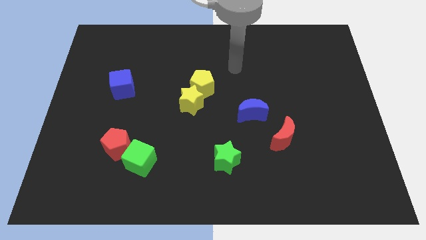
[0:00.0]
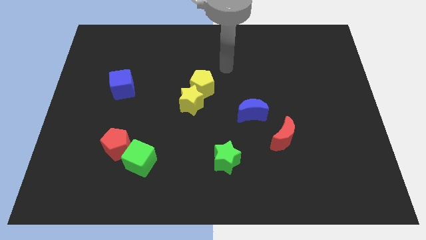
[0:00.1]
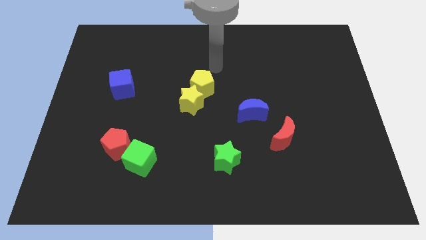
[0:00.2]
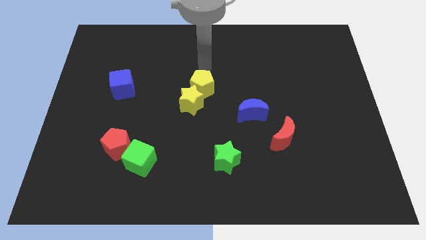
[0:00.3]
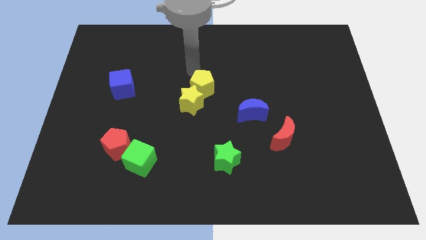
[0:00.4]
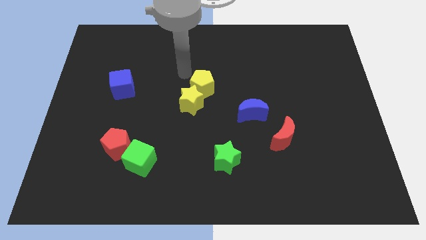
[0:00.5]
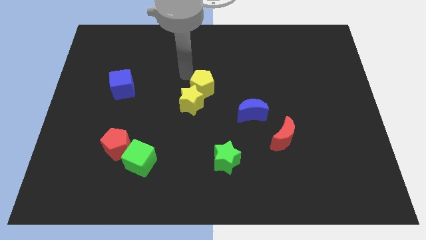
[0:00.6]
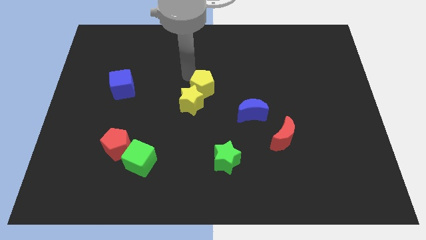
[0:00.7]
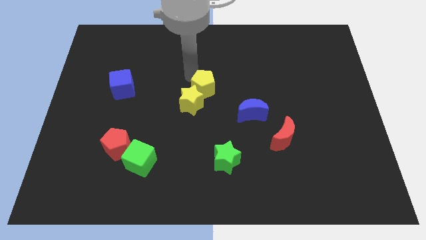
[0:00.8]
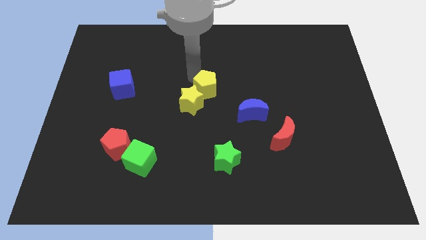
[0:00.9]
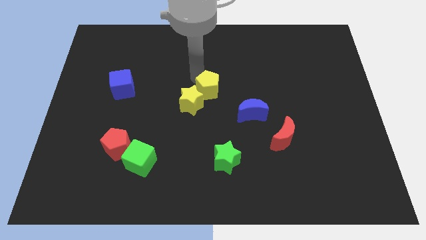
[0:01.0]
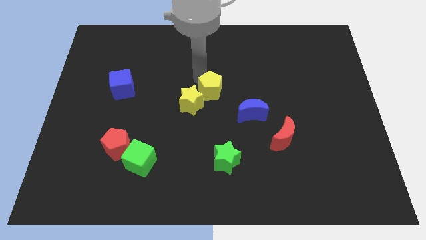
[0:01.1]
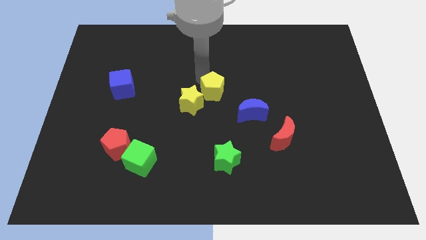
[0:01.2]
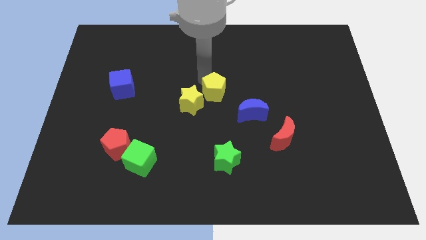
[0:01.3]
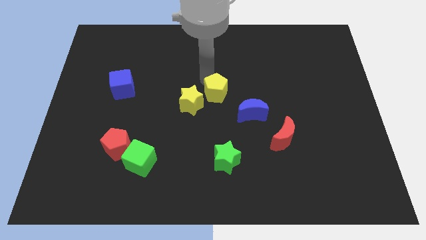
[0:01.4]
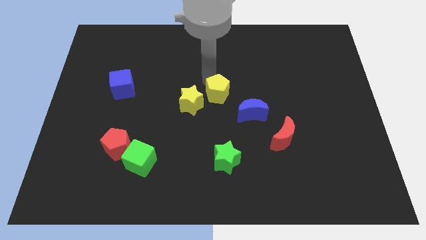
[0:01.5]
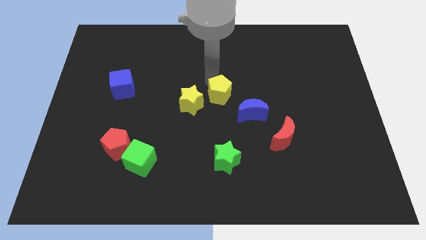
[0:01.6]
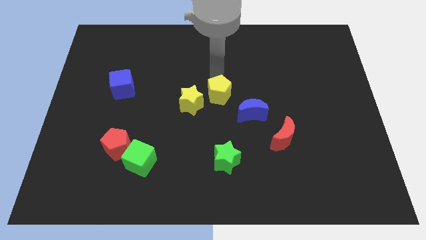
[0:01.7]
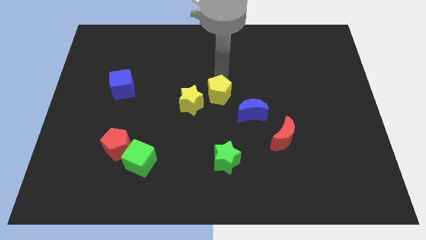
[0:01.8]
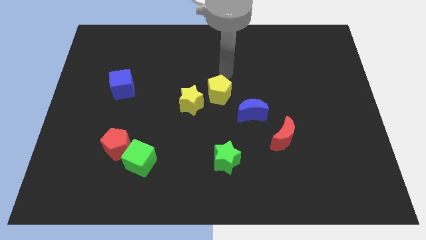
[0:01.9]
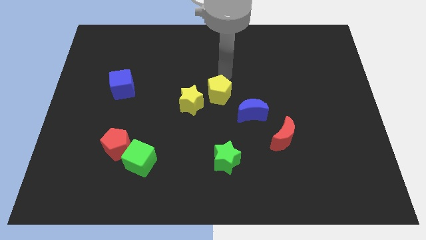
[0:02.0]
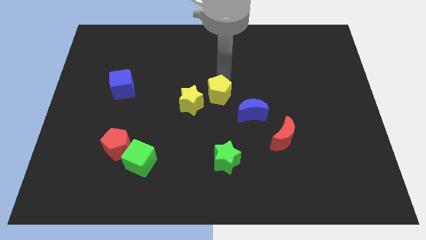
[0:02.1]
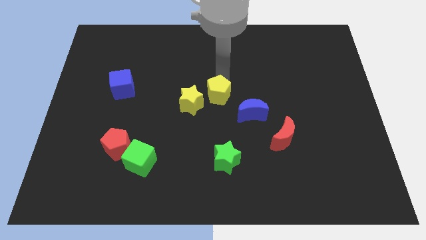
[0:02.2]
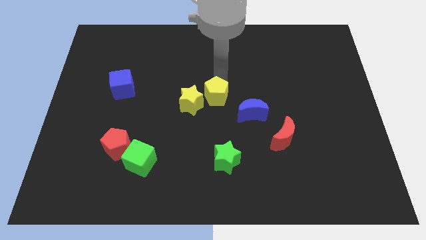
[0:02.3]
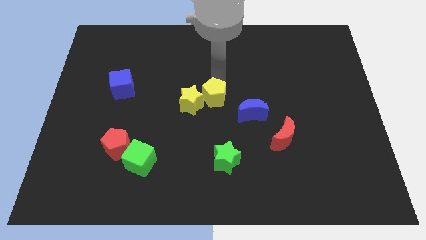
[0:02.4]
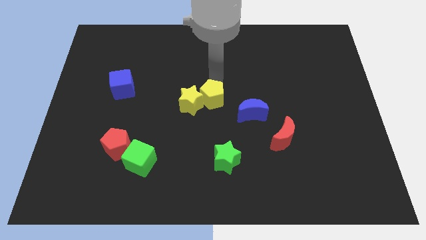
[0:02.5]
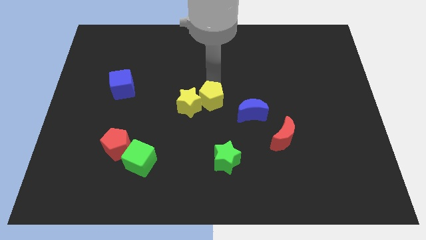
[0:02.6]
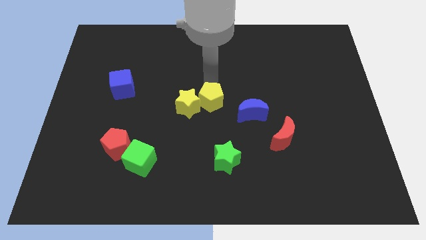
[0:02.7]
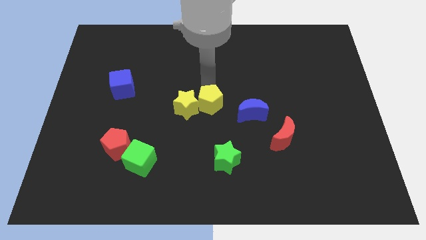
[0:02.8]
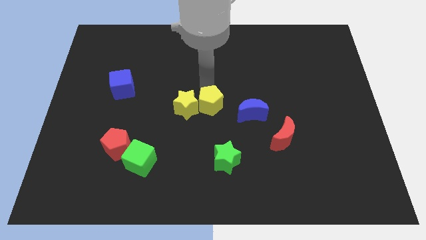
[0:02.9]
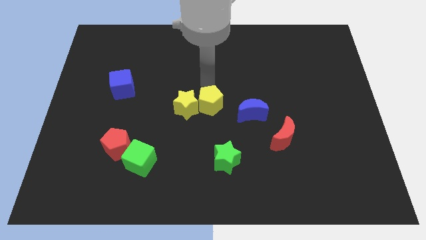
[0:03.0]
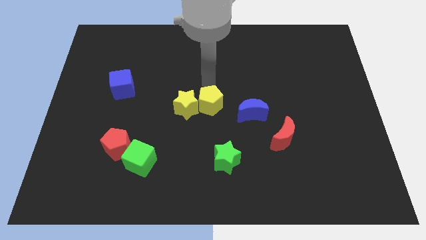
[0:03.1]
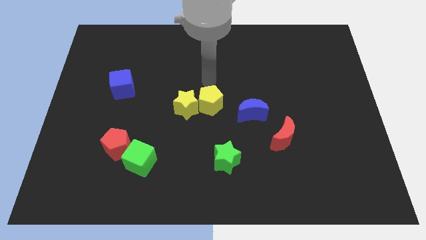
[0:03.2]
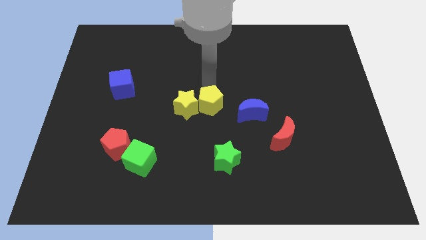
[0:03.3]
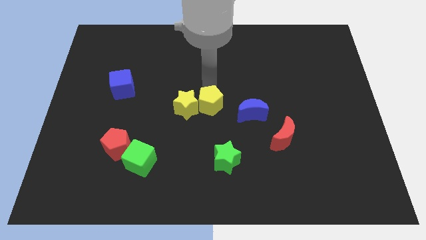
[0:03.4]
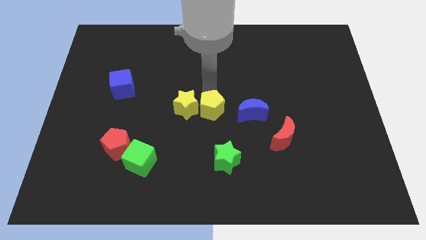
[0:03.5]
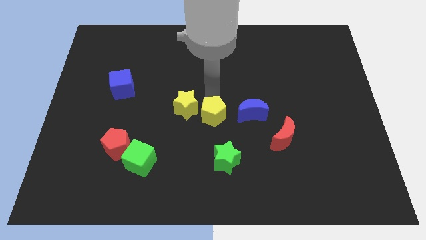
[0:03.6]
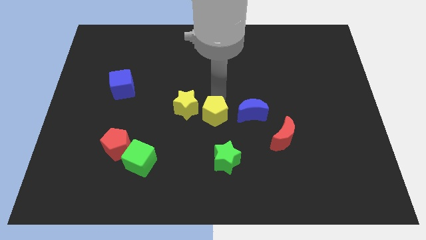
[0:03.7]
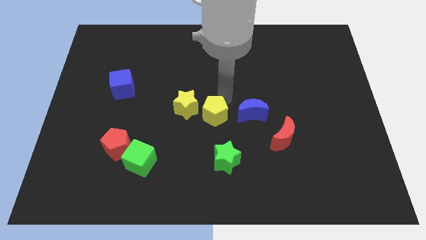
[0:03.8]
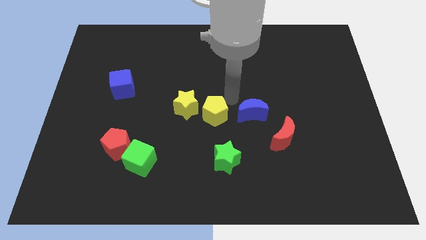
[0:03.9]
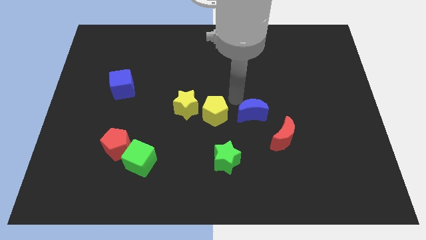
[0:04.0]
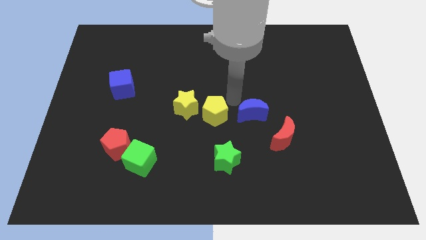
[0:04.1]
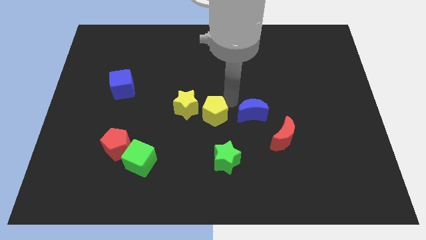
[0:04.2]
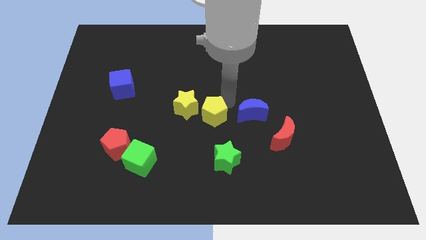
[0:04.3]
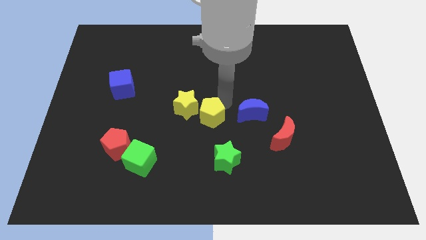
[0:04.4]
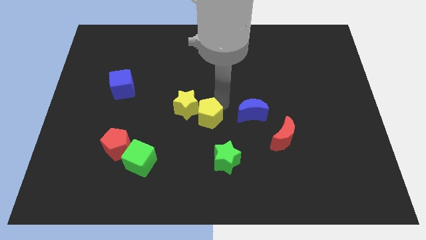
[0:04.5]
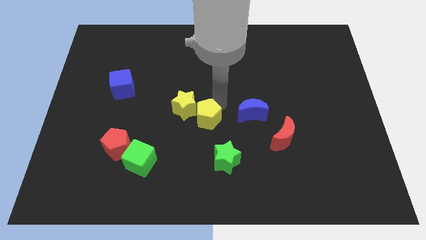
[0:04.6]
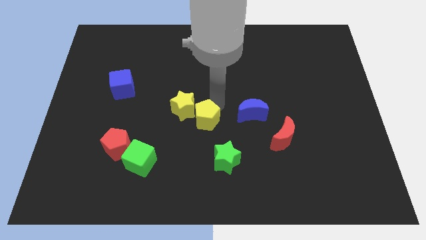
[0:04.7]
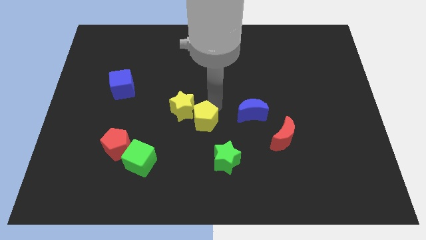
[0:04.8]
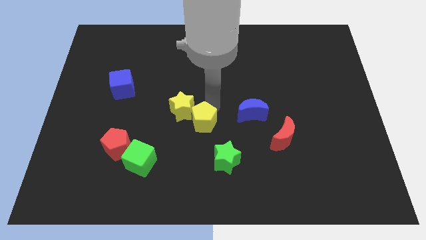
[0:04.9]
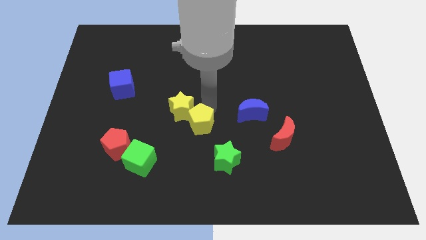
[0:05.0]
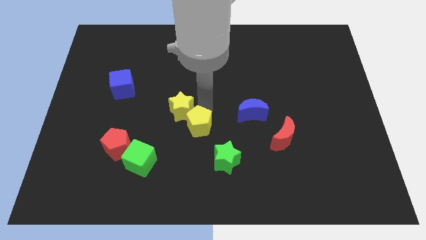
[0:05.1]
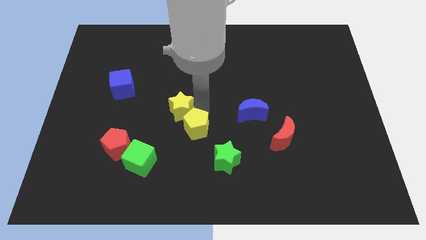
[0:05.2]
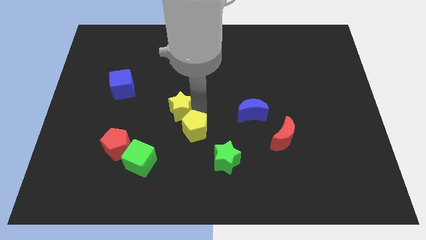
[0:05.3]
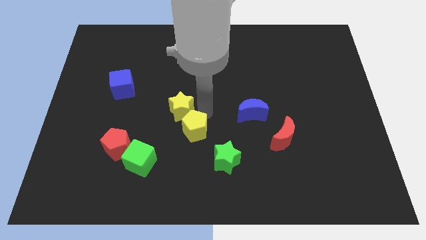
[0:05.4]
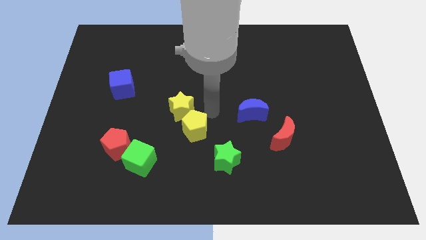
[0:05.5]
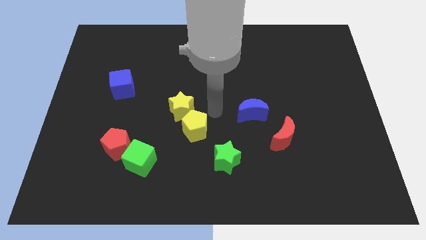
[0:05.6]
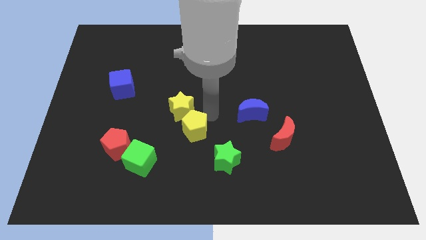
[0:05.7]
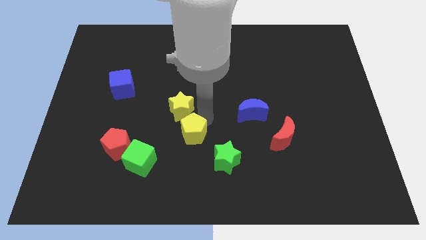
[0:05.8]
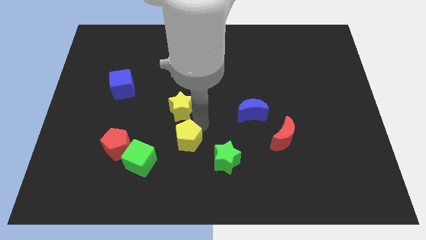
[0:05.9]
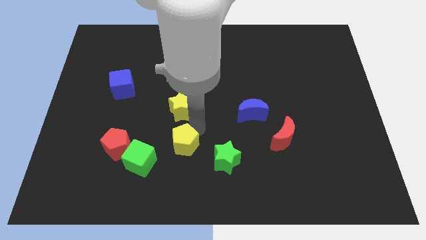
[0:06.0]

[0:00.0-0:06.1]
push the yellow pentagon left of the green star

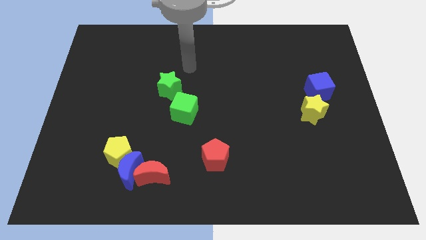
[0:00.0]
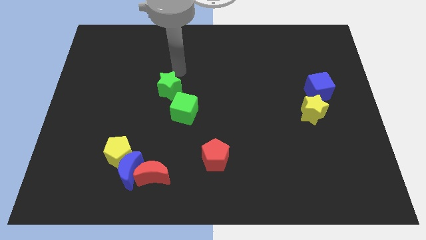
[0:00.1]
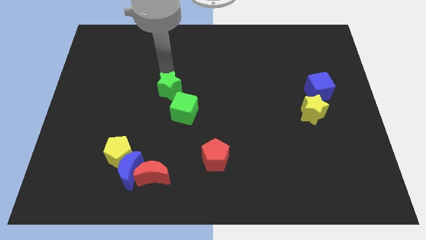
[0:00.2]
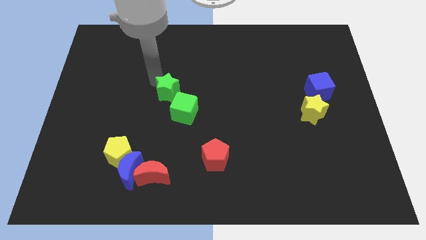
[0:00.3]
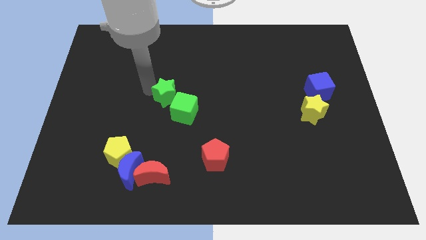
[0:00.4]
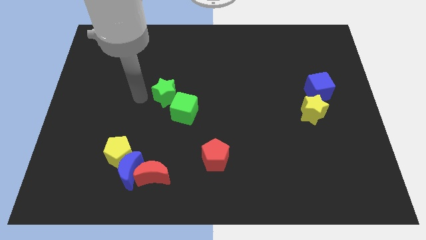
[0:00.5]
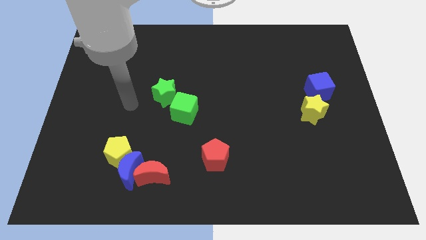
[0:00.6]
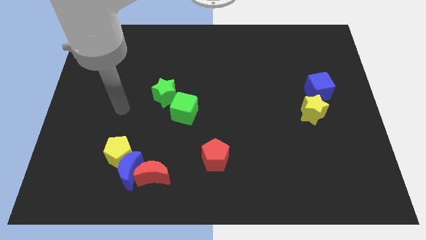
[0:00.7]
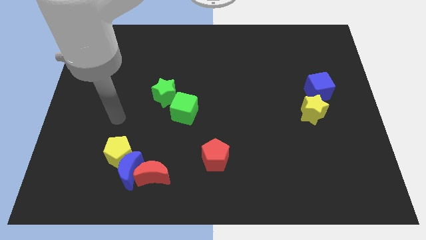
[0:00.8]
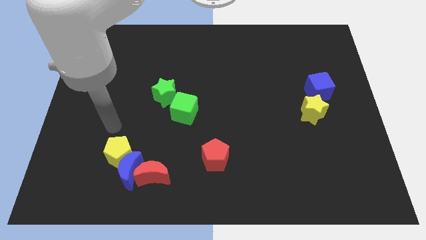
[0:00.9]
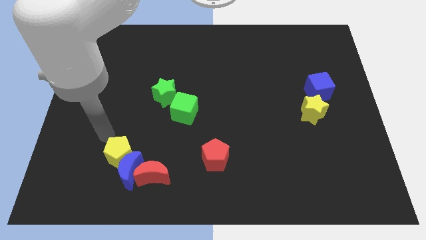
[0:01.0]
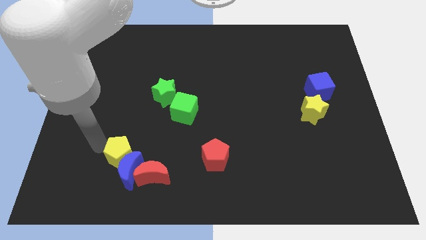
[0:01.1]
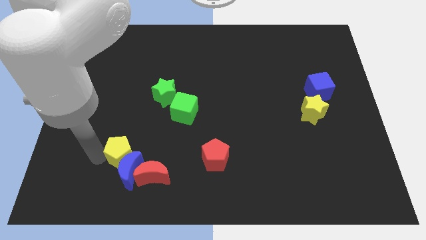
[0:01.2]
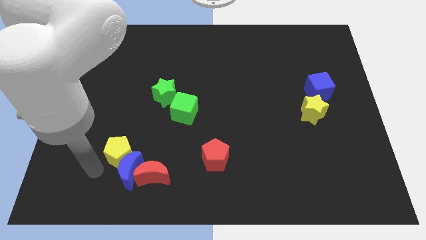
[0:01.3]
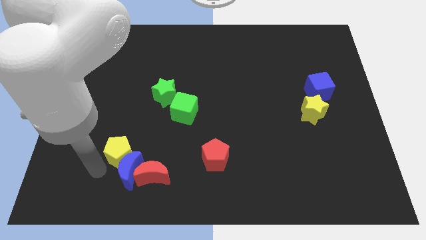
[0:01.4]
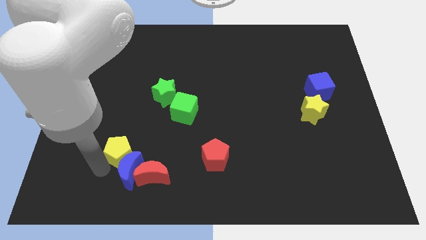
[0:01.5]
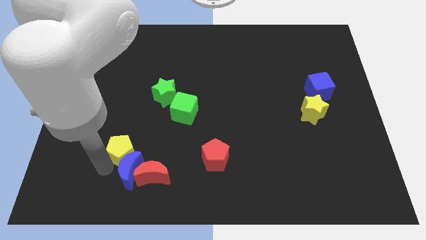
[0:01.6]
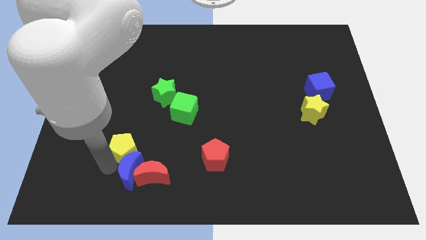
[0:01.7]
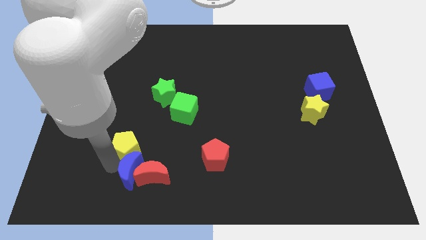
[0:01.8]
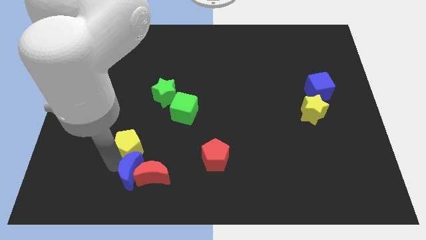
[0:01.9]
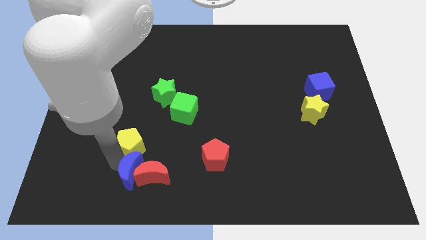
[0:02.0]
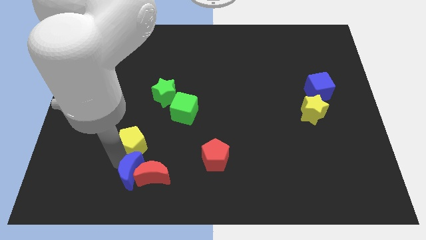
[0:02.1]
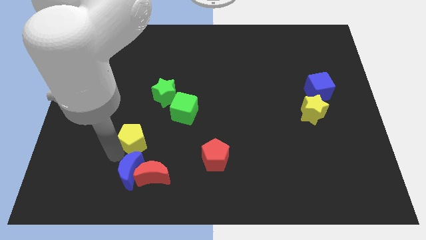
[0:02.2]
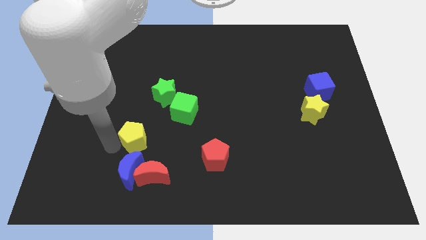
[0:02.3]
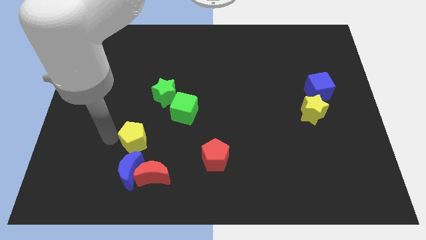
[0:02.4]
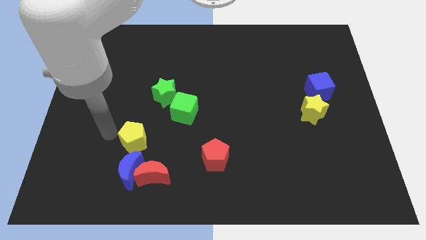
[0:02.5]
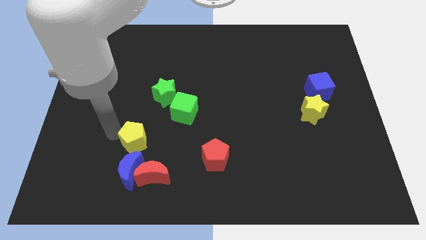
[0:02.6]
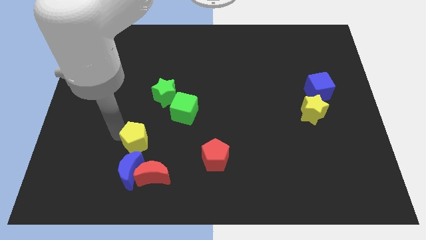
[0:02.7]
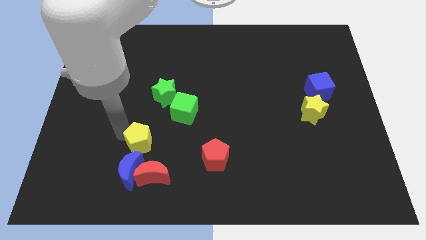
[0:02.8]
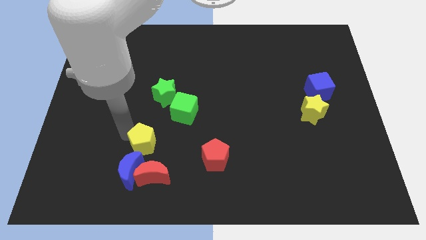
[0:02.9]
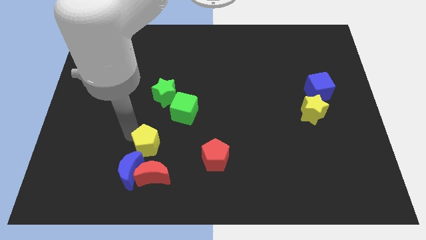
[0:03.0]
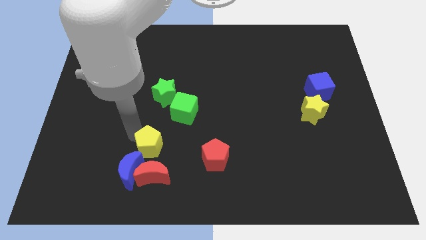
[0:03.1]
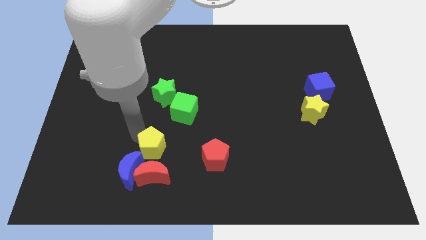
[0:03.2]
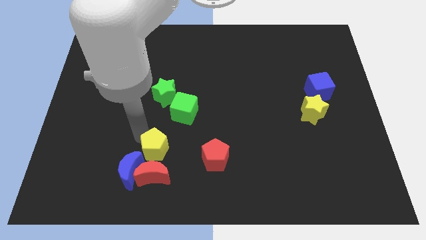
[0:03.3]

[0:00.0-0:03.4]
move the yellow pentagon diagonally up and to the right of the red moon
